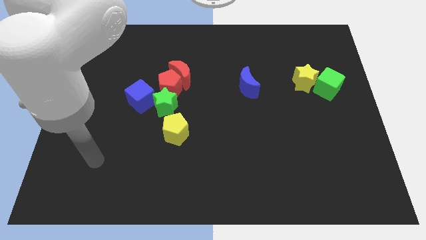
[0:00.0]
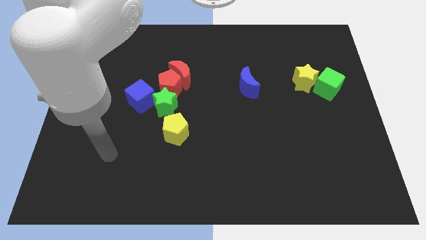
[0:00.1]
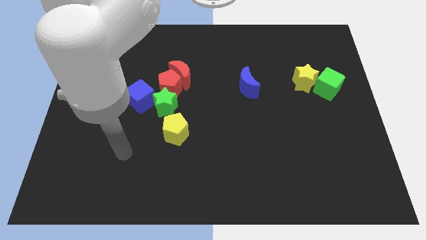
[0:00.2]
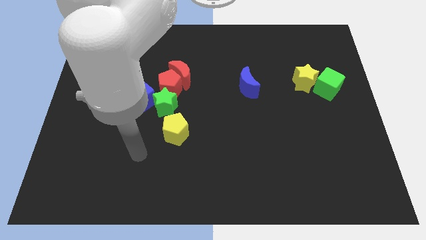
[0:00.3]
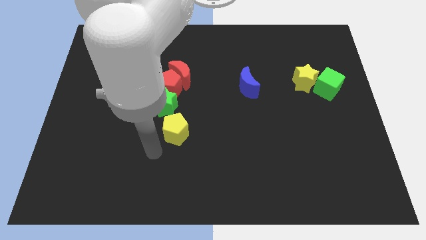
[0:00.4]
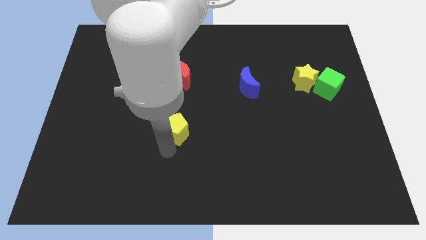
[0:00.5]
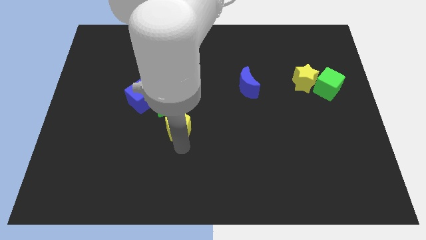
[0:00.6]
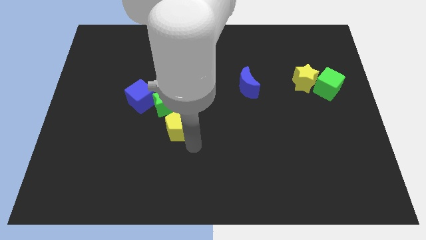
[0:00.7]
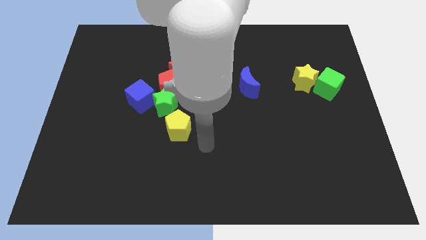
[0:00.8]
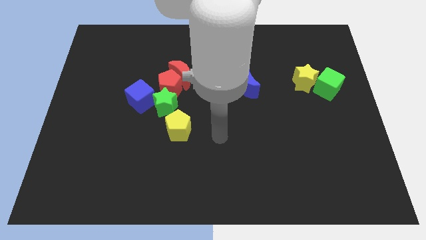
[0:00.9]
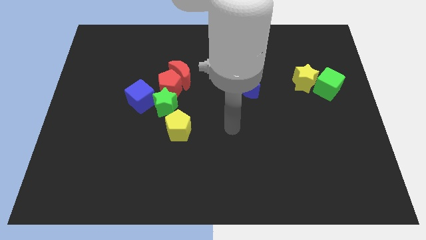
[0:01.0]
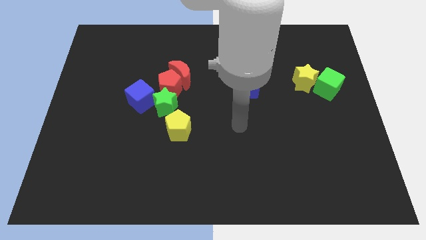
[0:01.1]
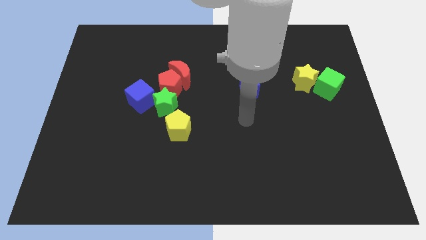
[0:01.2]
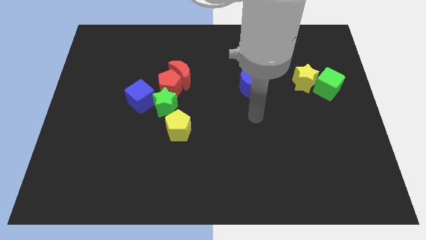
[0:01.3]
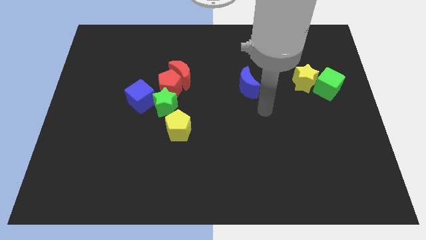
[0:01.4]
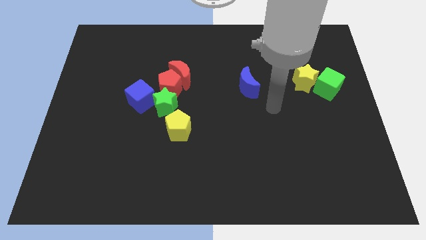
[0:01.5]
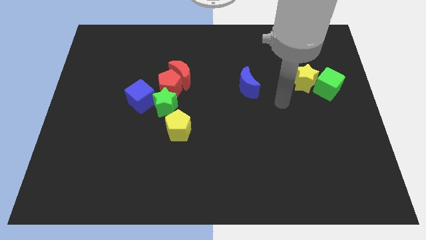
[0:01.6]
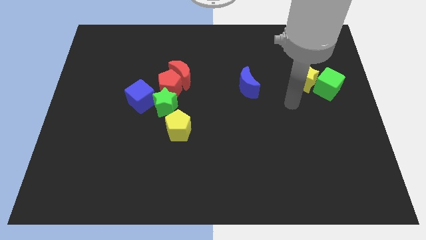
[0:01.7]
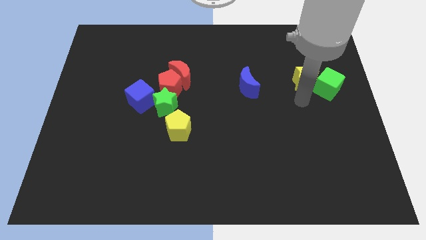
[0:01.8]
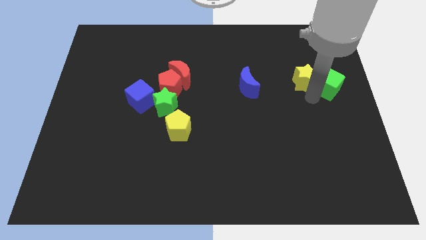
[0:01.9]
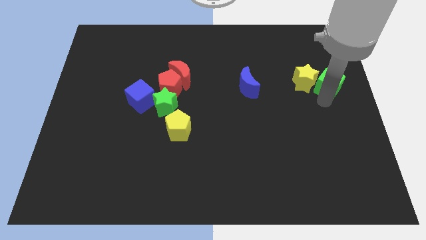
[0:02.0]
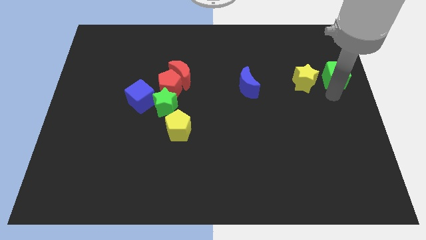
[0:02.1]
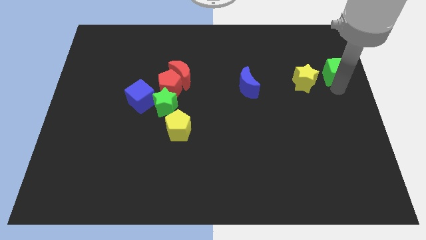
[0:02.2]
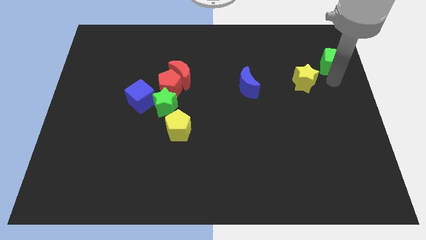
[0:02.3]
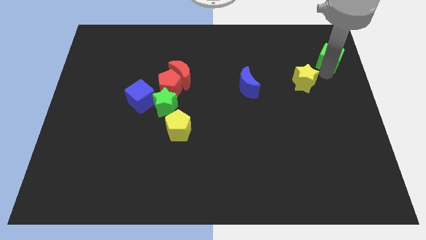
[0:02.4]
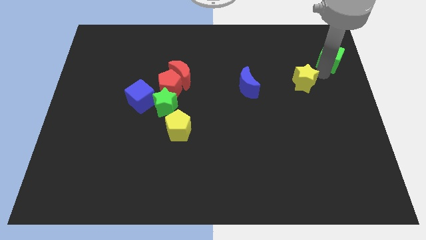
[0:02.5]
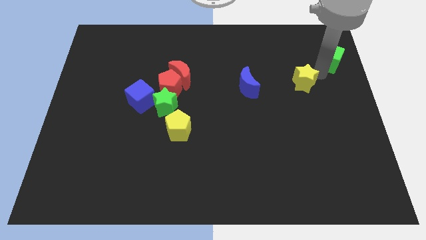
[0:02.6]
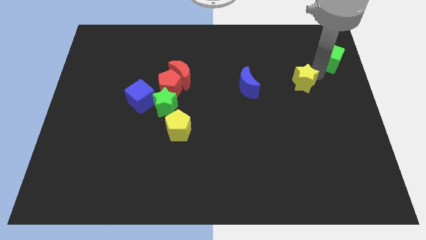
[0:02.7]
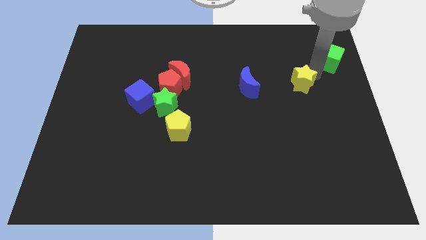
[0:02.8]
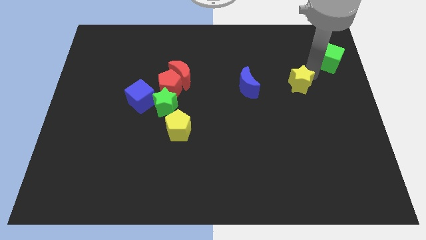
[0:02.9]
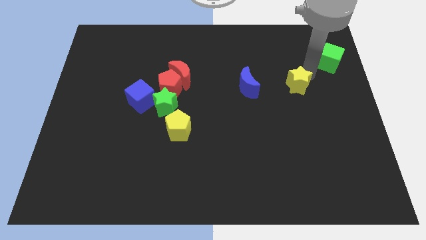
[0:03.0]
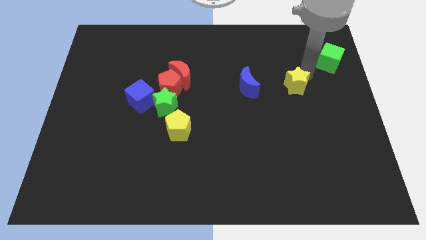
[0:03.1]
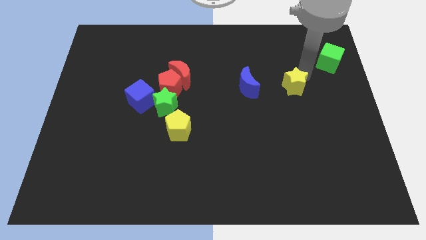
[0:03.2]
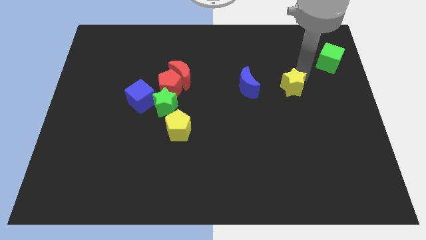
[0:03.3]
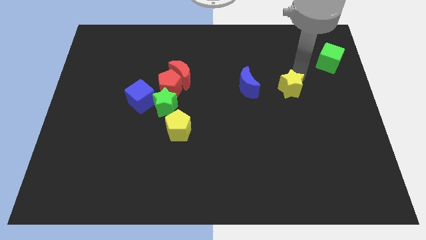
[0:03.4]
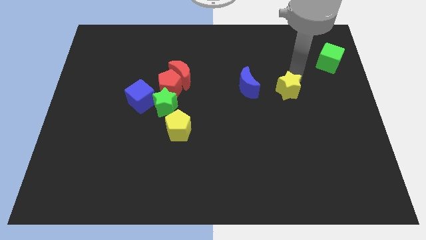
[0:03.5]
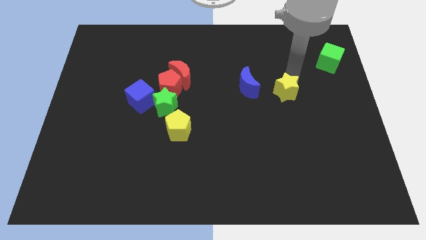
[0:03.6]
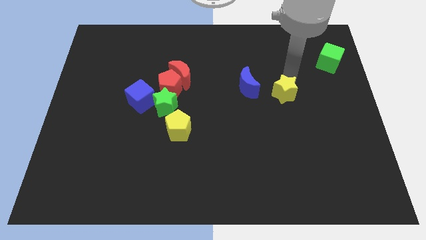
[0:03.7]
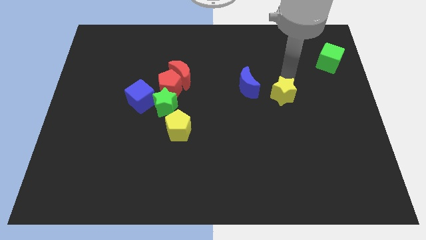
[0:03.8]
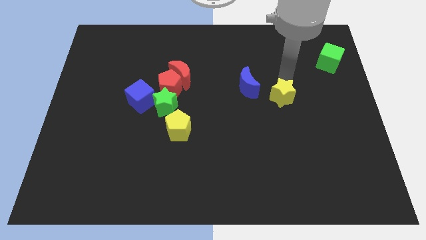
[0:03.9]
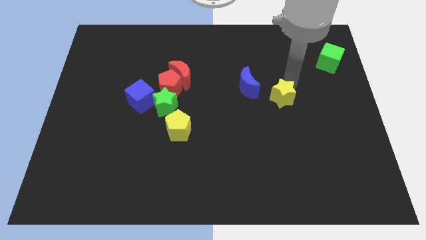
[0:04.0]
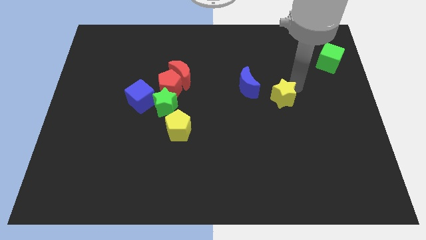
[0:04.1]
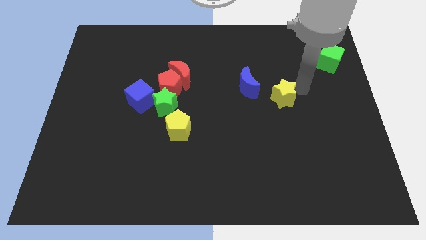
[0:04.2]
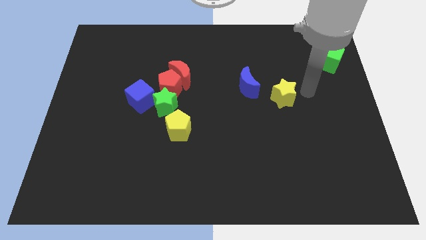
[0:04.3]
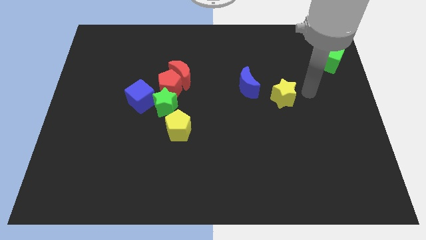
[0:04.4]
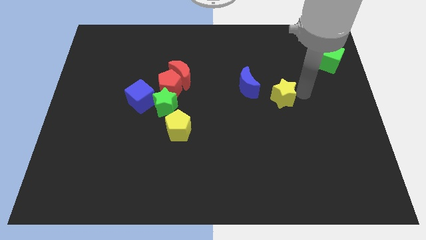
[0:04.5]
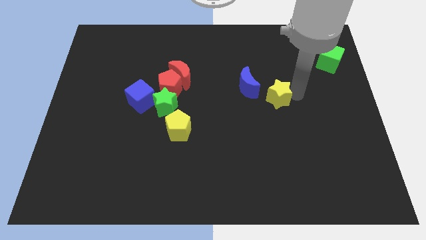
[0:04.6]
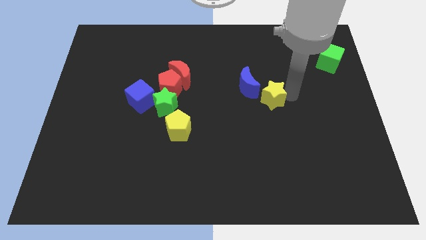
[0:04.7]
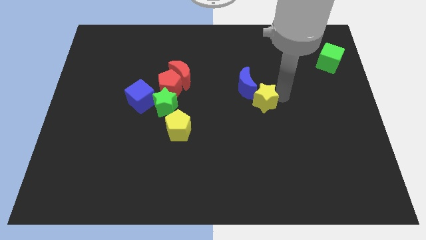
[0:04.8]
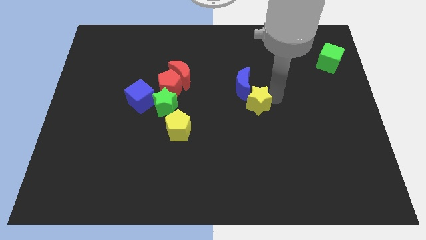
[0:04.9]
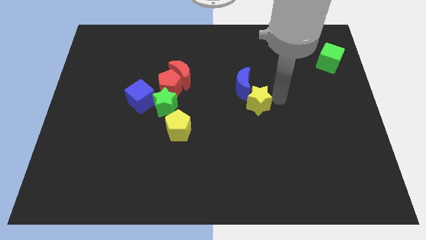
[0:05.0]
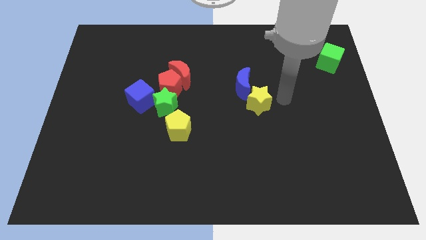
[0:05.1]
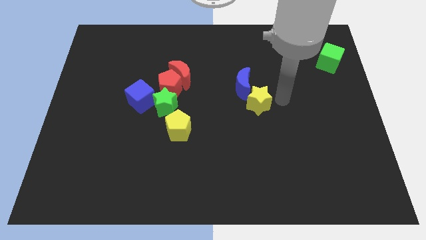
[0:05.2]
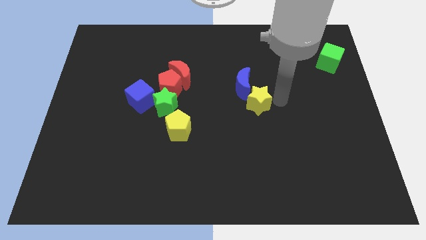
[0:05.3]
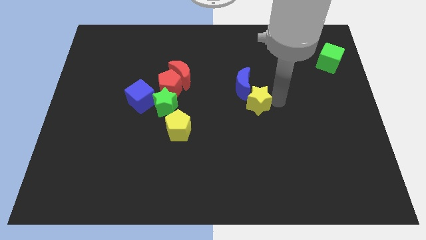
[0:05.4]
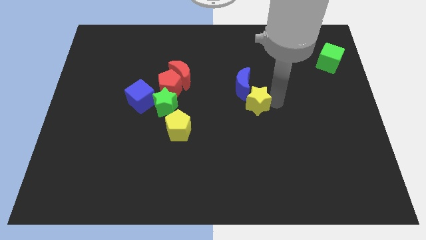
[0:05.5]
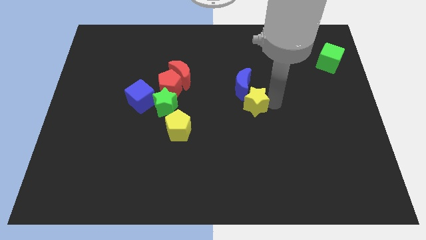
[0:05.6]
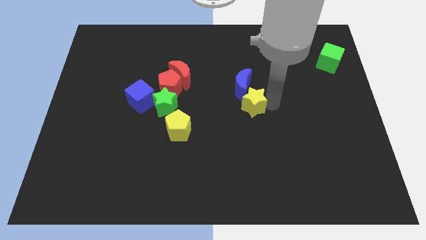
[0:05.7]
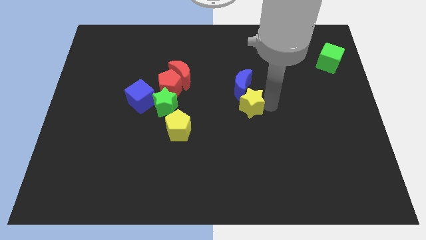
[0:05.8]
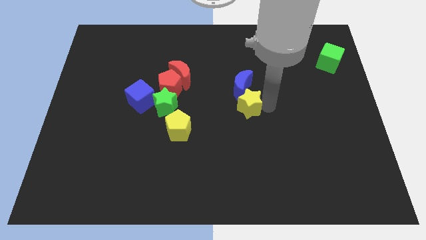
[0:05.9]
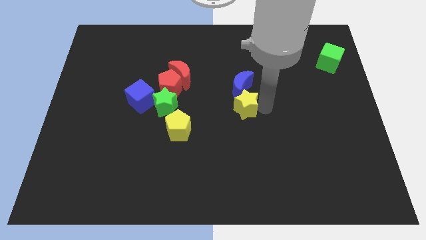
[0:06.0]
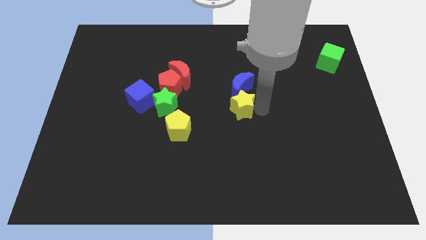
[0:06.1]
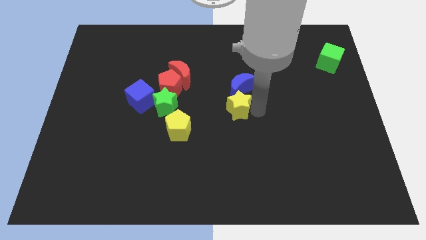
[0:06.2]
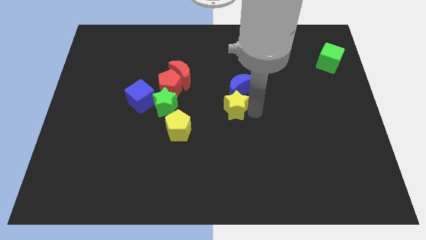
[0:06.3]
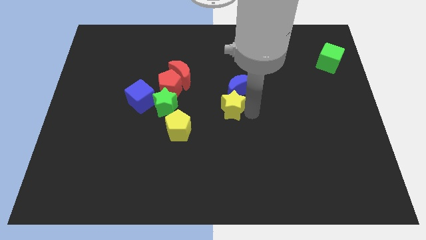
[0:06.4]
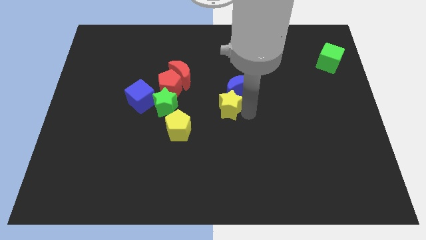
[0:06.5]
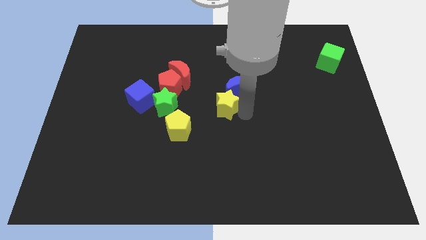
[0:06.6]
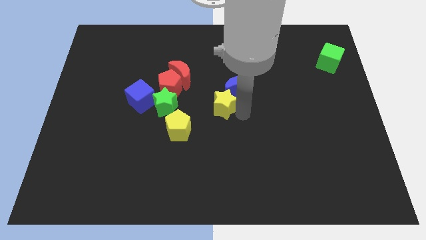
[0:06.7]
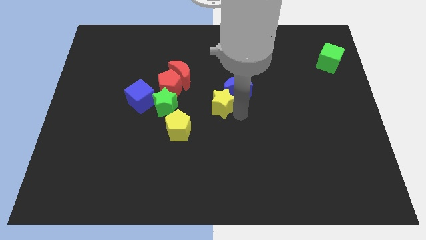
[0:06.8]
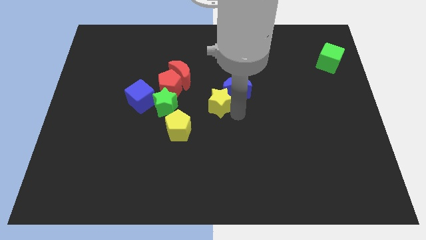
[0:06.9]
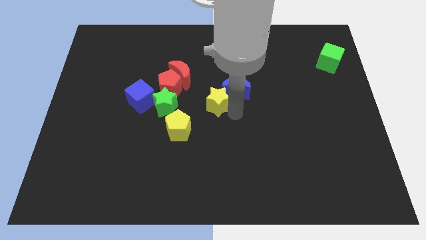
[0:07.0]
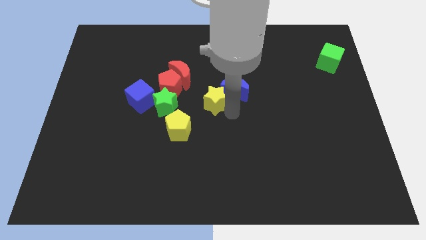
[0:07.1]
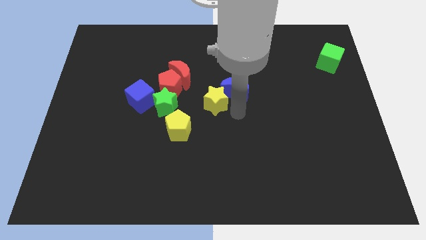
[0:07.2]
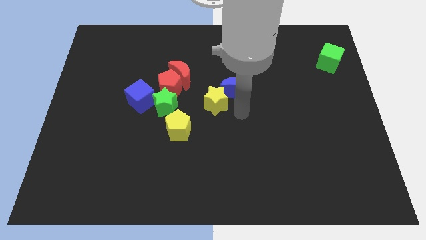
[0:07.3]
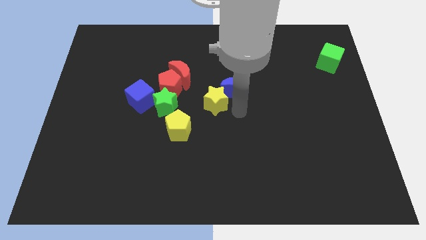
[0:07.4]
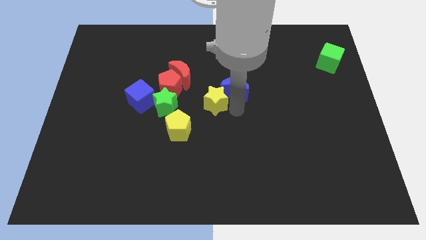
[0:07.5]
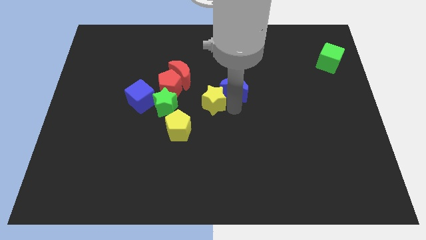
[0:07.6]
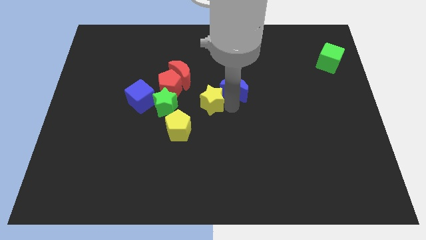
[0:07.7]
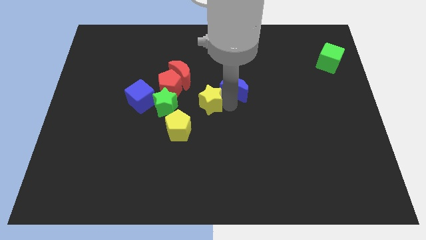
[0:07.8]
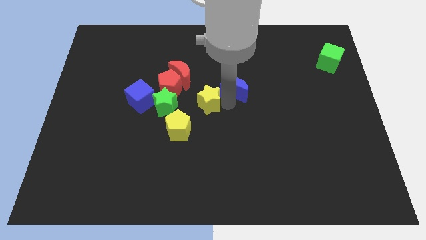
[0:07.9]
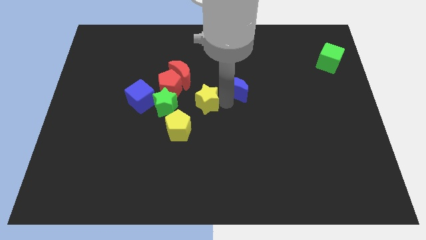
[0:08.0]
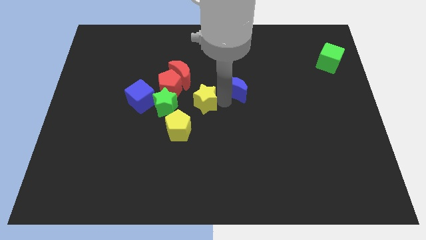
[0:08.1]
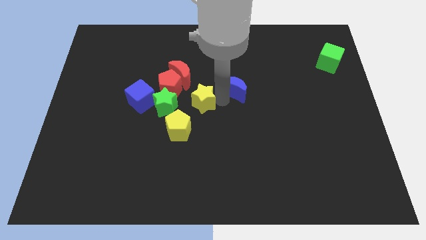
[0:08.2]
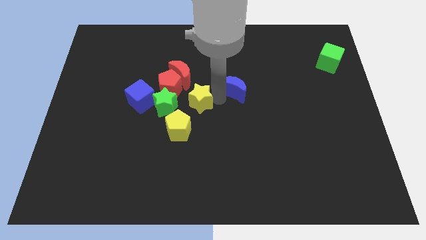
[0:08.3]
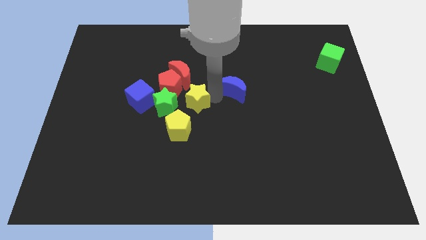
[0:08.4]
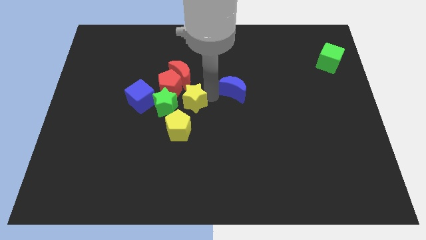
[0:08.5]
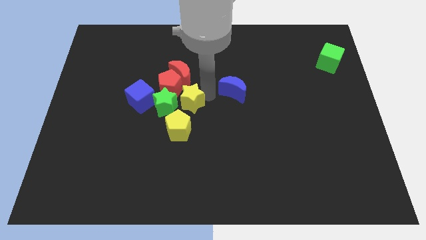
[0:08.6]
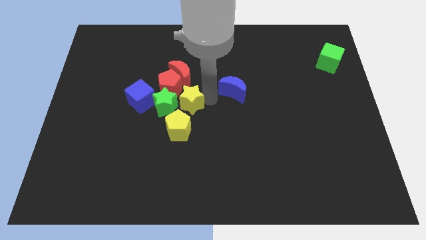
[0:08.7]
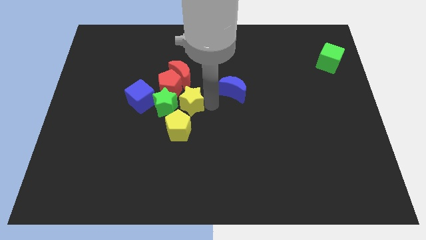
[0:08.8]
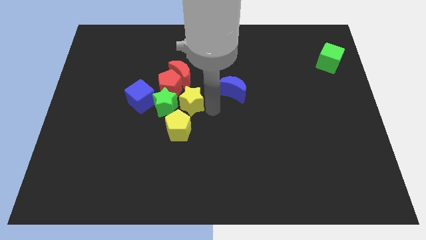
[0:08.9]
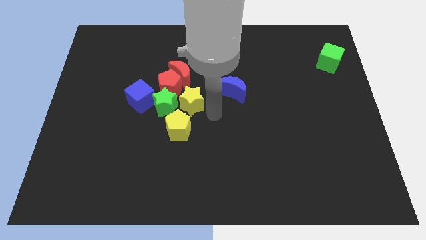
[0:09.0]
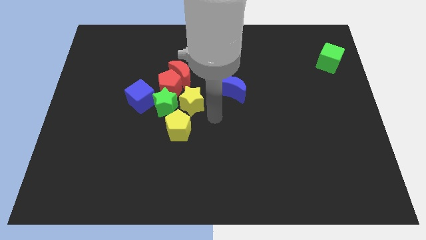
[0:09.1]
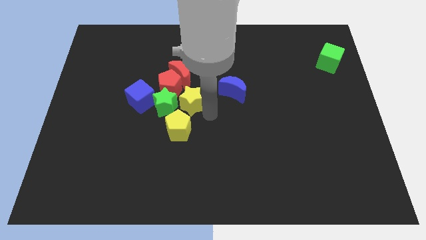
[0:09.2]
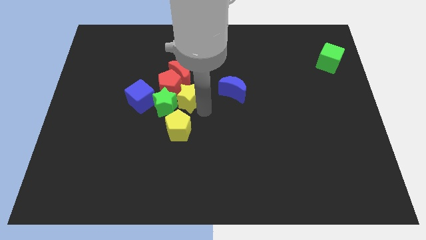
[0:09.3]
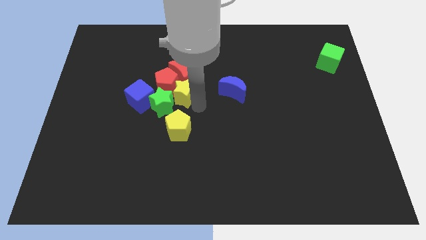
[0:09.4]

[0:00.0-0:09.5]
push the yellow star towards the red pentagon
